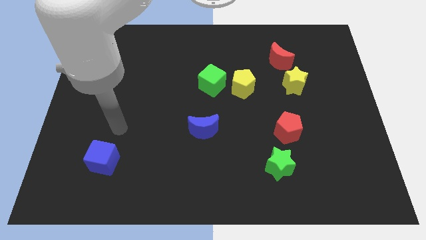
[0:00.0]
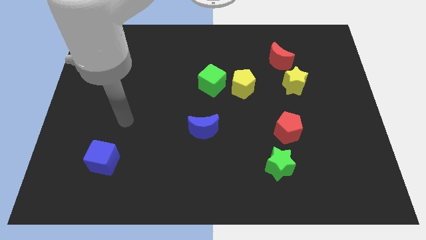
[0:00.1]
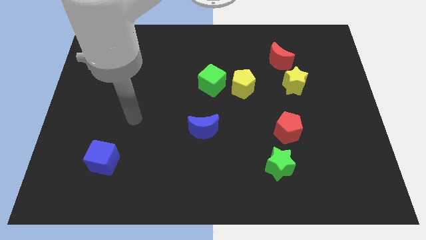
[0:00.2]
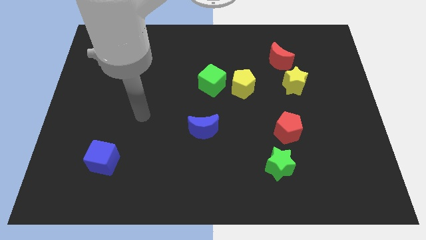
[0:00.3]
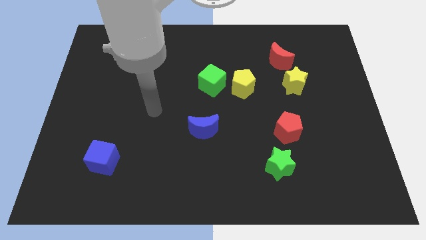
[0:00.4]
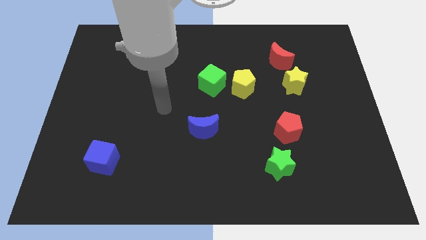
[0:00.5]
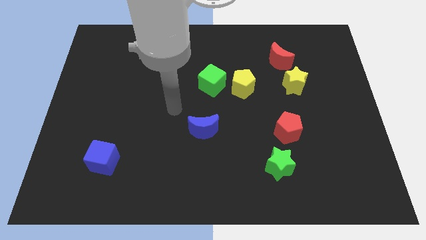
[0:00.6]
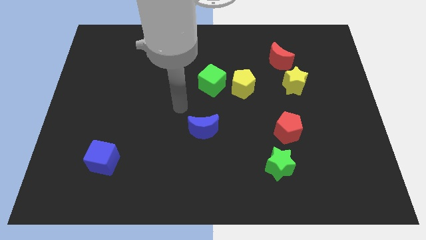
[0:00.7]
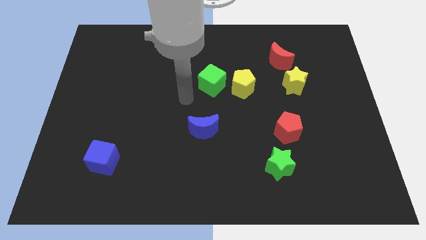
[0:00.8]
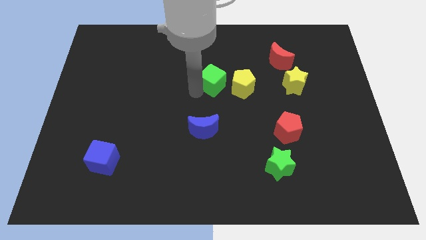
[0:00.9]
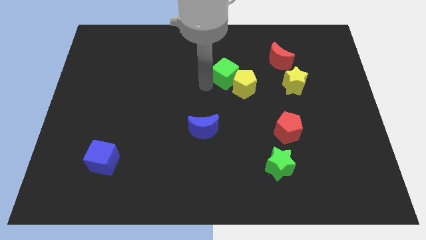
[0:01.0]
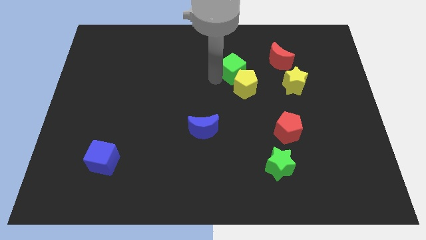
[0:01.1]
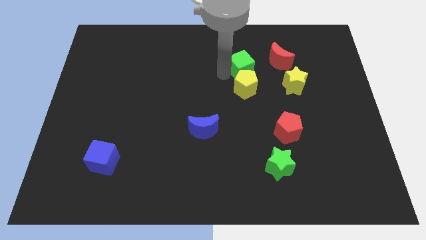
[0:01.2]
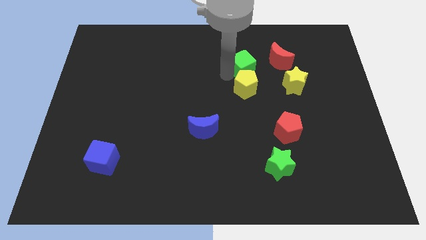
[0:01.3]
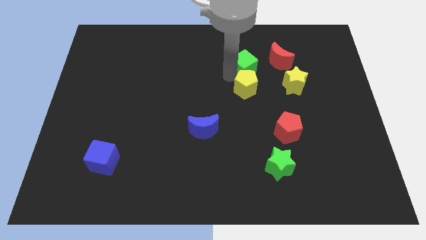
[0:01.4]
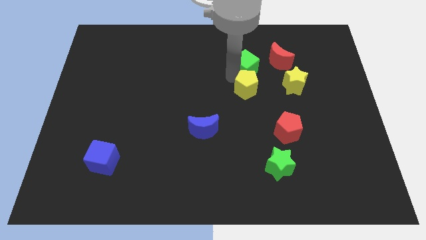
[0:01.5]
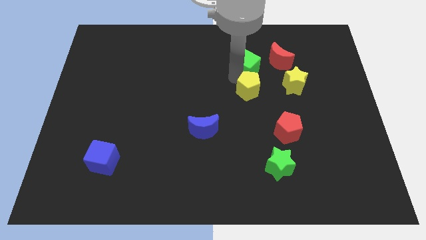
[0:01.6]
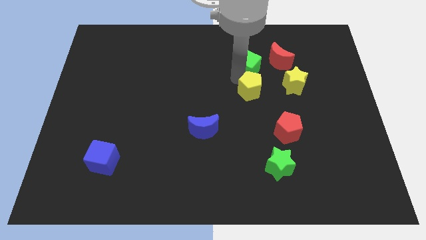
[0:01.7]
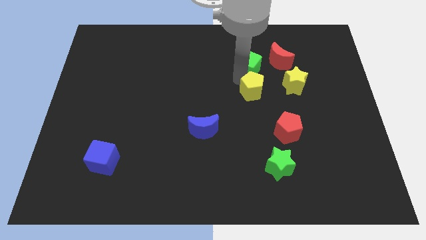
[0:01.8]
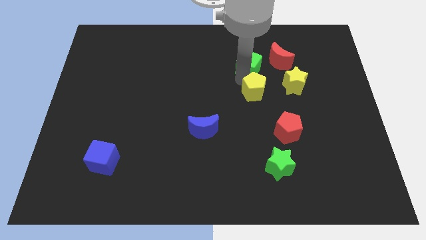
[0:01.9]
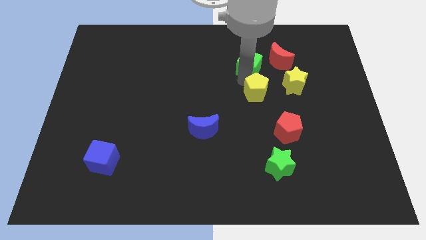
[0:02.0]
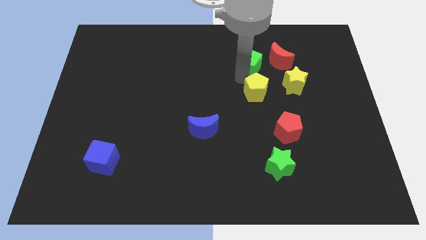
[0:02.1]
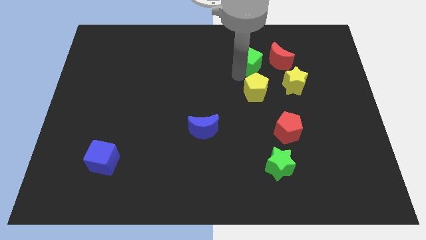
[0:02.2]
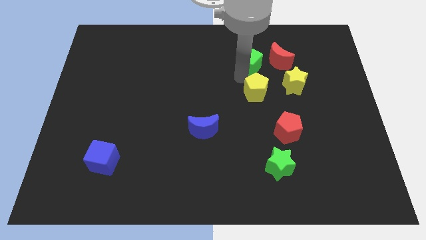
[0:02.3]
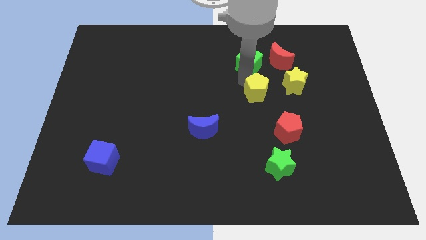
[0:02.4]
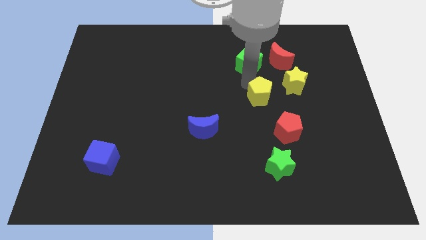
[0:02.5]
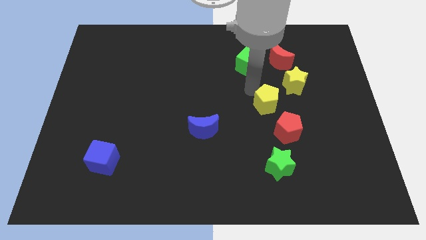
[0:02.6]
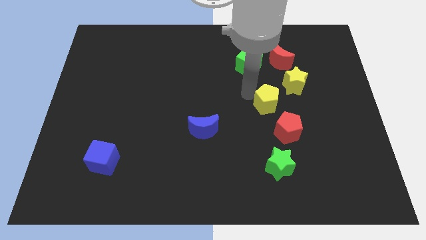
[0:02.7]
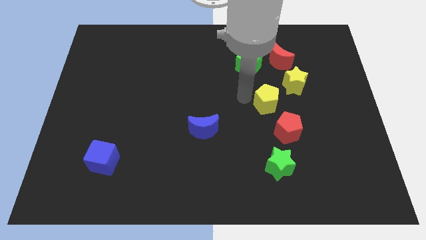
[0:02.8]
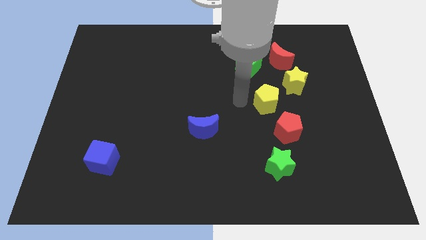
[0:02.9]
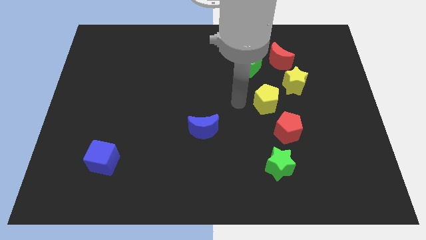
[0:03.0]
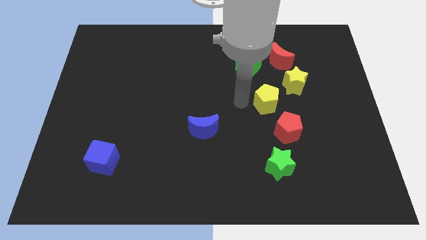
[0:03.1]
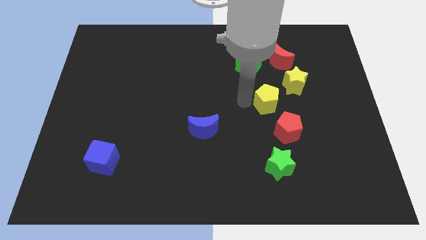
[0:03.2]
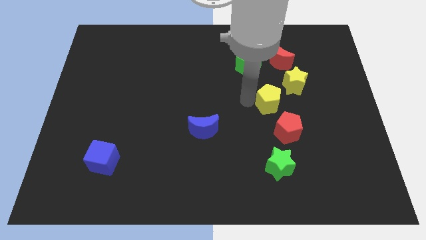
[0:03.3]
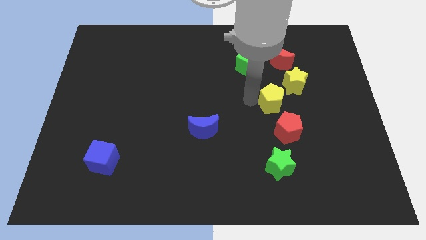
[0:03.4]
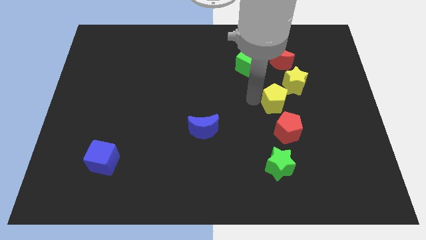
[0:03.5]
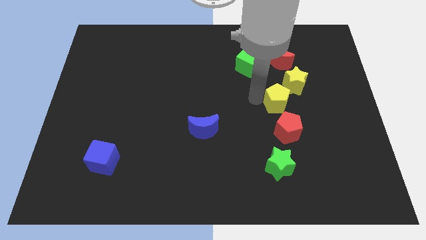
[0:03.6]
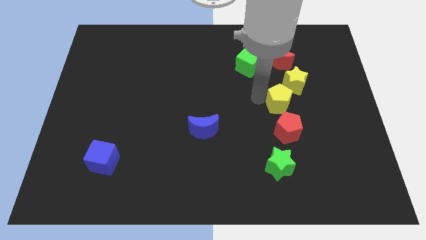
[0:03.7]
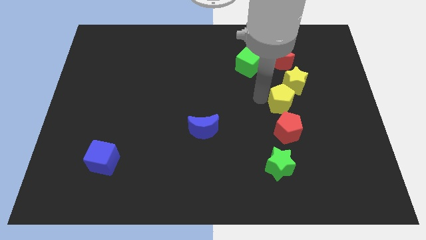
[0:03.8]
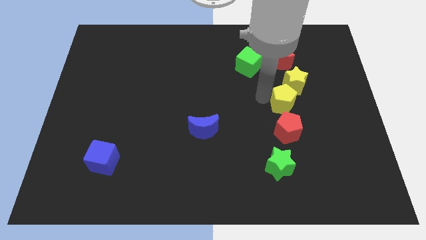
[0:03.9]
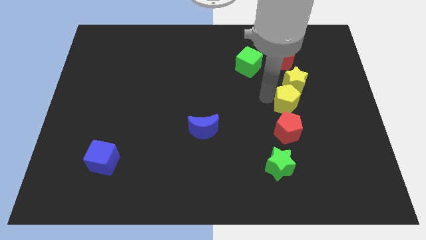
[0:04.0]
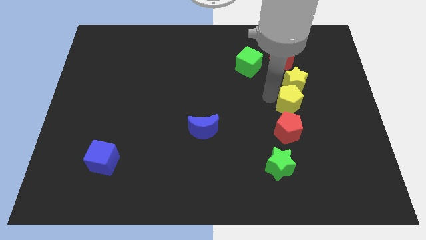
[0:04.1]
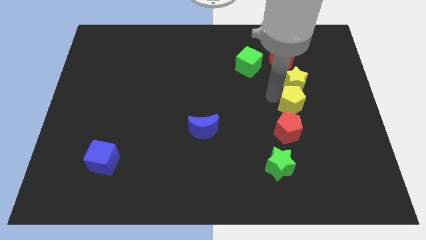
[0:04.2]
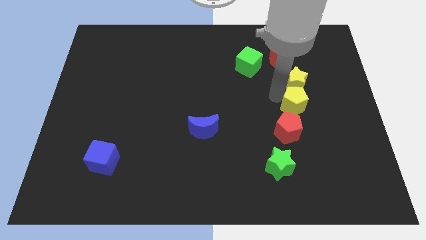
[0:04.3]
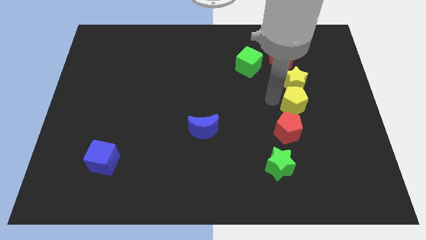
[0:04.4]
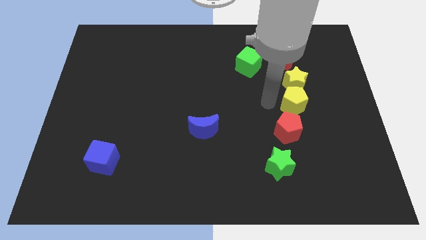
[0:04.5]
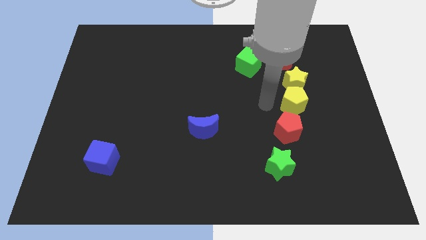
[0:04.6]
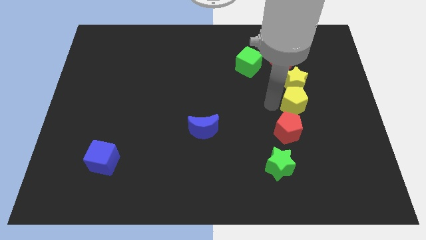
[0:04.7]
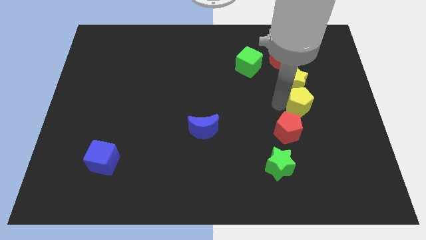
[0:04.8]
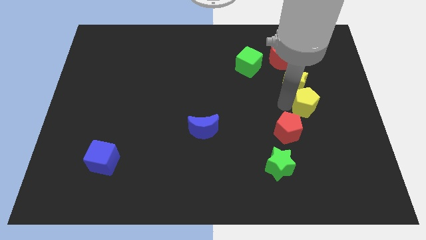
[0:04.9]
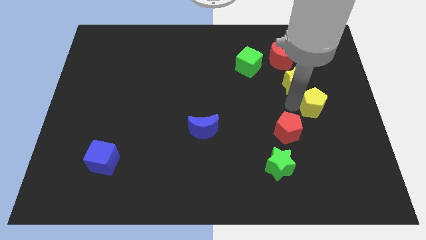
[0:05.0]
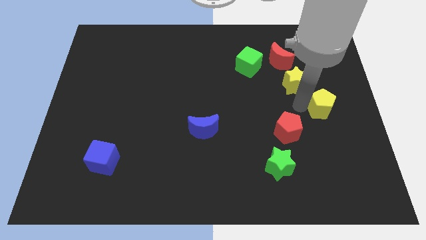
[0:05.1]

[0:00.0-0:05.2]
slide the yellow pentagon to the right side

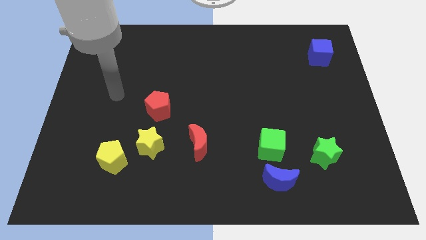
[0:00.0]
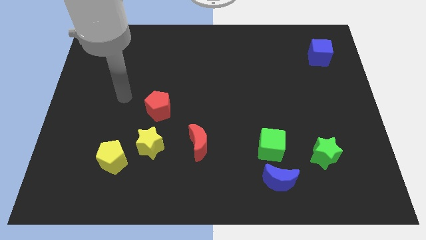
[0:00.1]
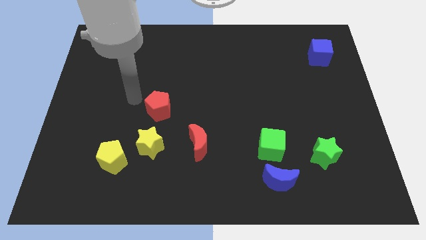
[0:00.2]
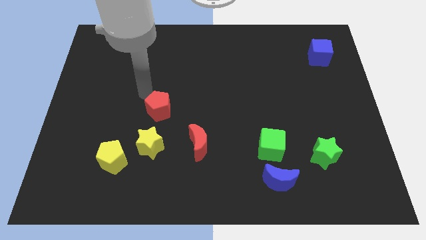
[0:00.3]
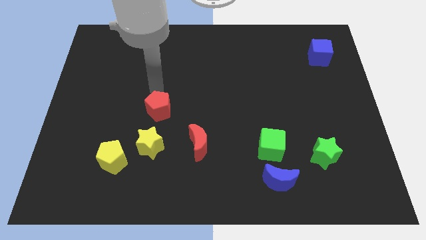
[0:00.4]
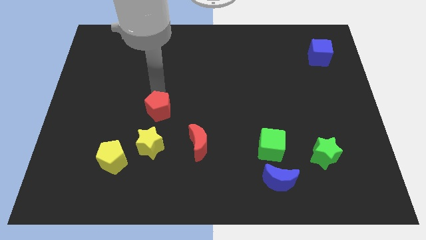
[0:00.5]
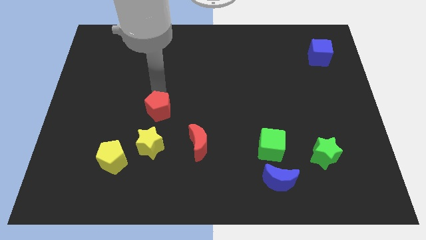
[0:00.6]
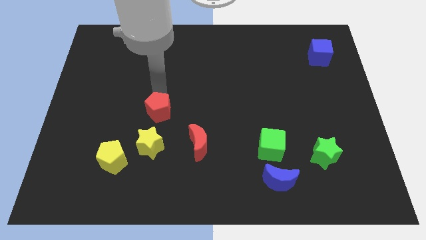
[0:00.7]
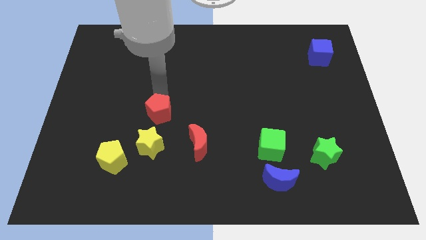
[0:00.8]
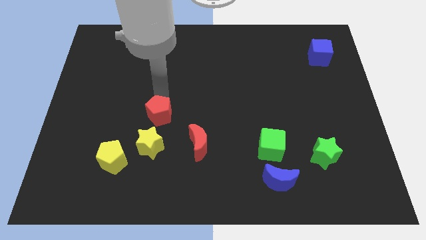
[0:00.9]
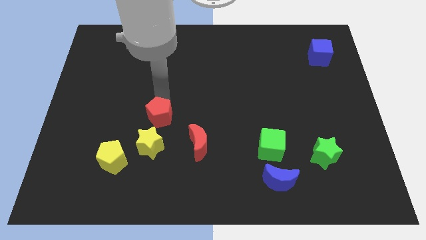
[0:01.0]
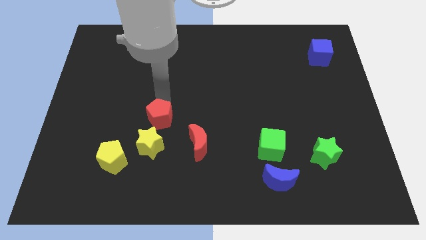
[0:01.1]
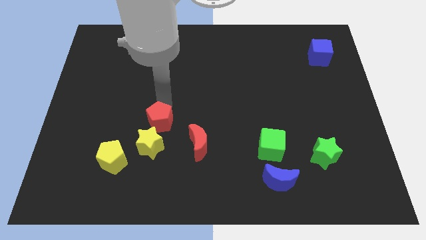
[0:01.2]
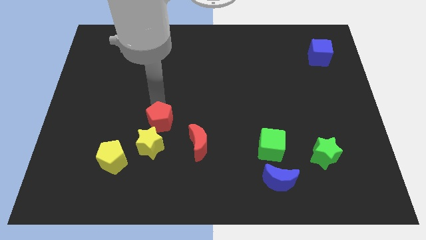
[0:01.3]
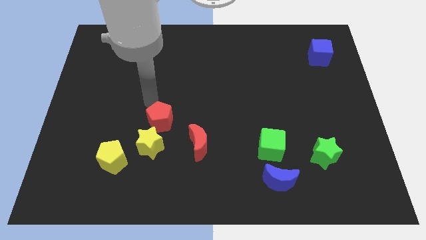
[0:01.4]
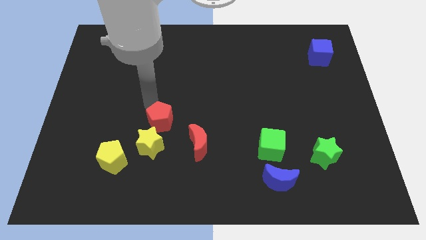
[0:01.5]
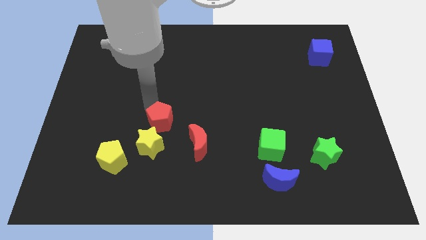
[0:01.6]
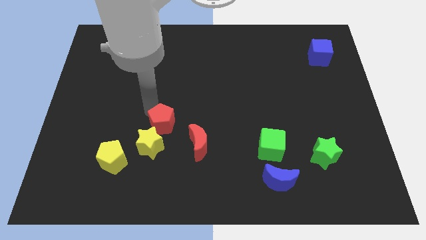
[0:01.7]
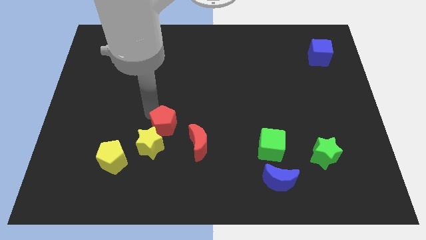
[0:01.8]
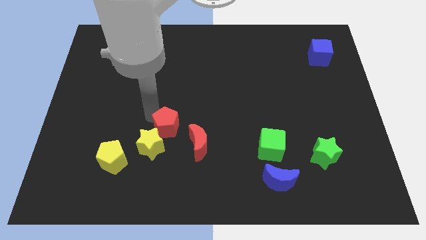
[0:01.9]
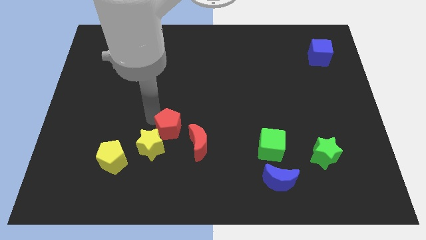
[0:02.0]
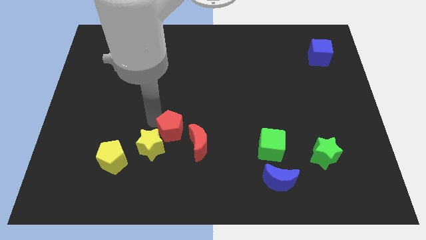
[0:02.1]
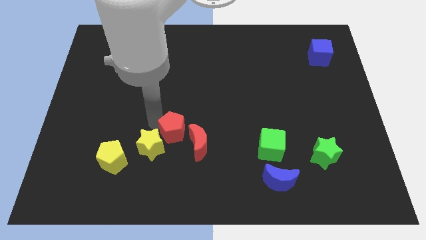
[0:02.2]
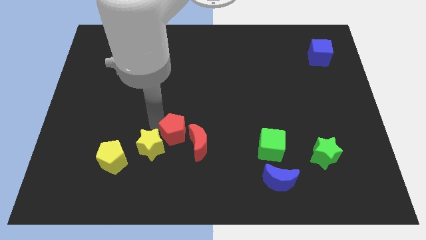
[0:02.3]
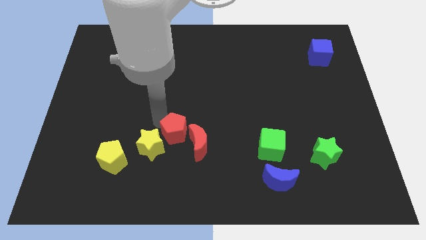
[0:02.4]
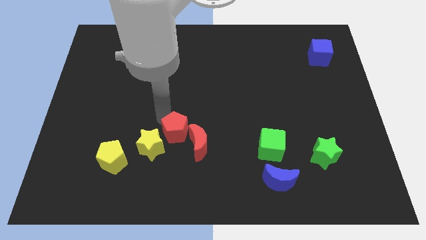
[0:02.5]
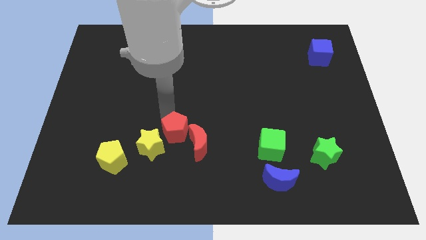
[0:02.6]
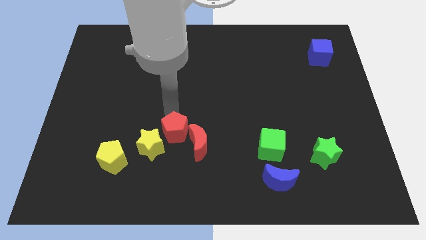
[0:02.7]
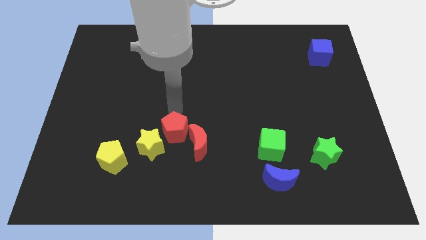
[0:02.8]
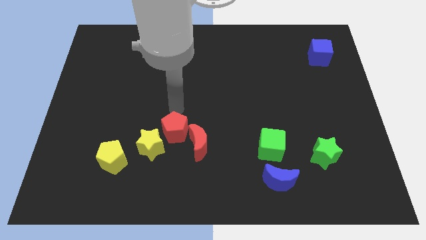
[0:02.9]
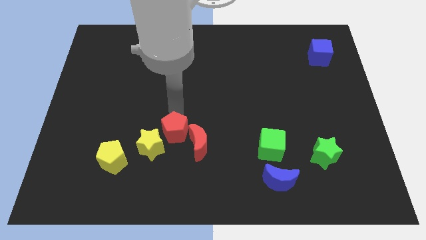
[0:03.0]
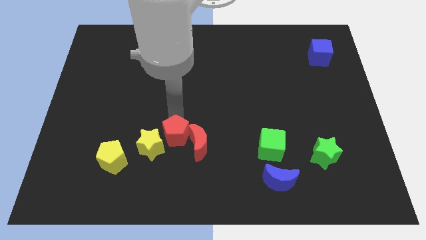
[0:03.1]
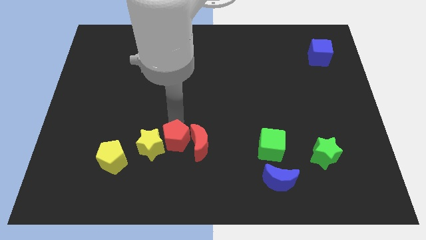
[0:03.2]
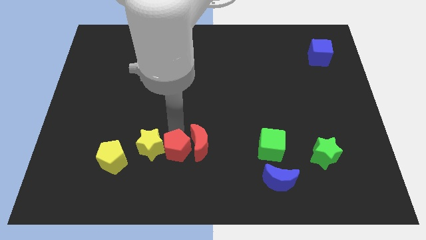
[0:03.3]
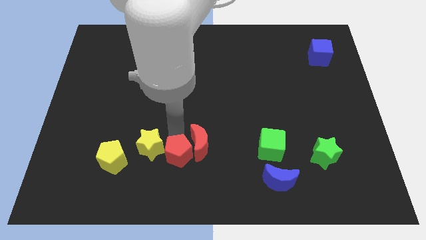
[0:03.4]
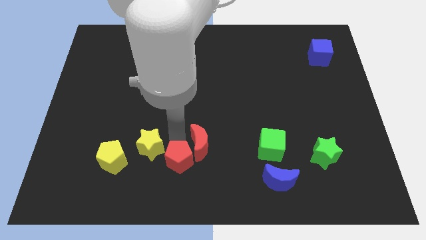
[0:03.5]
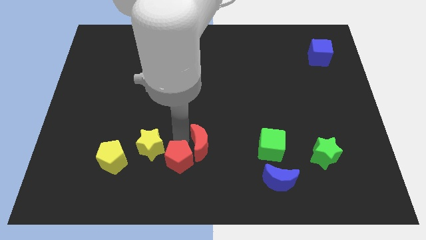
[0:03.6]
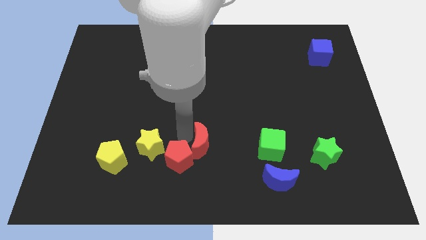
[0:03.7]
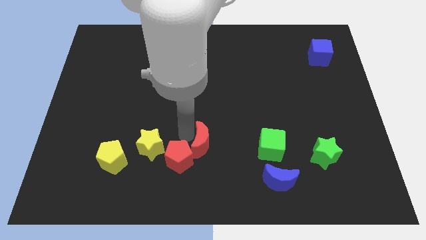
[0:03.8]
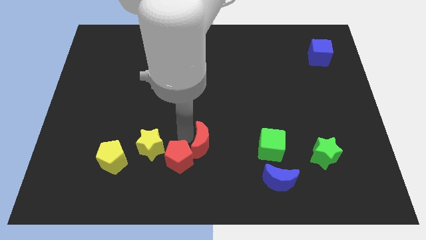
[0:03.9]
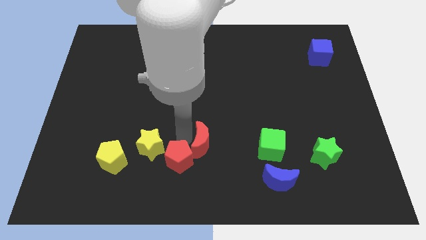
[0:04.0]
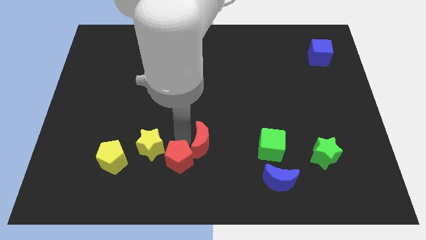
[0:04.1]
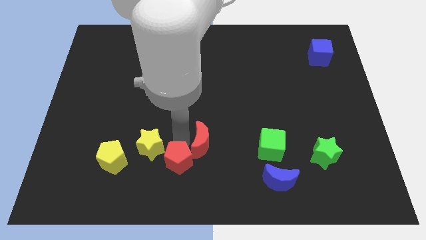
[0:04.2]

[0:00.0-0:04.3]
push the red pentagon to the bottom
